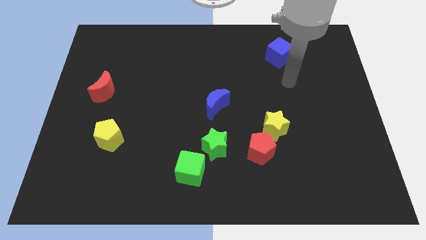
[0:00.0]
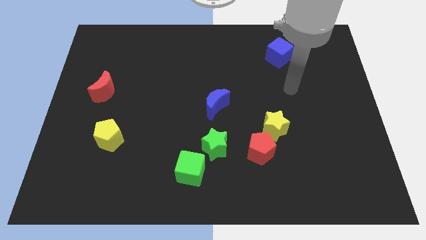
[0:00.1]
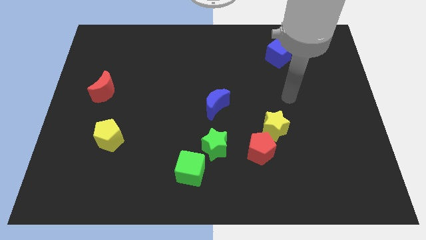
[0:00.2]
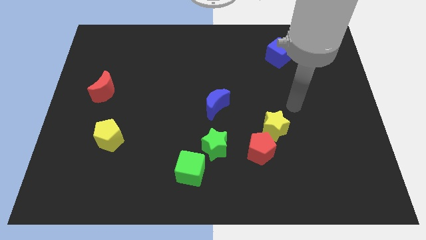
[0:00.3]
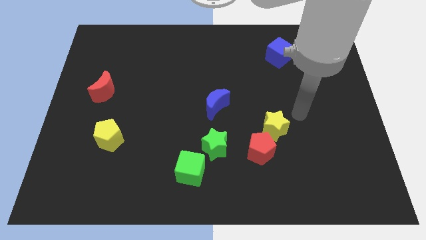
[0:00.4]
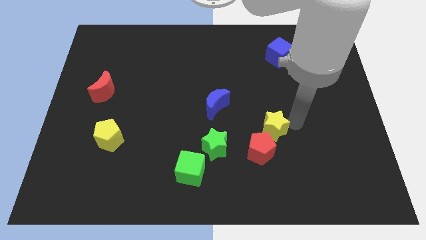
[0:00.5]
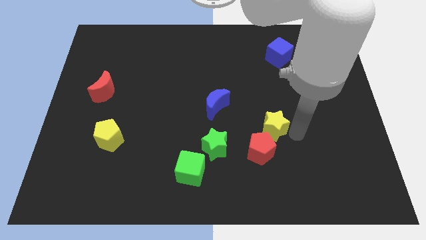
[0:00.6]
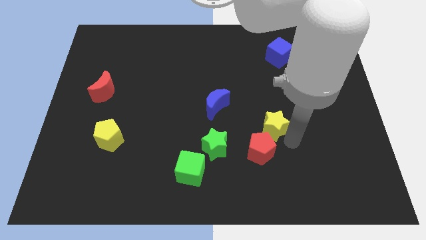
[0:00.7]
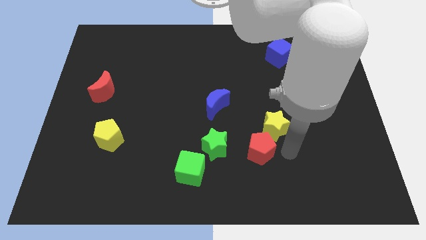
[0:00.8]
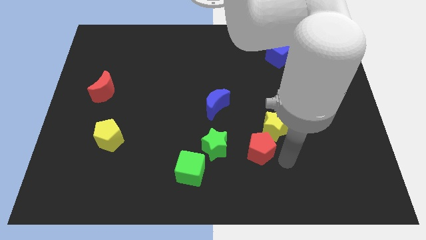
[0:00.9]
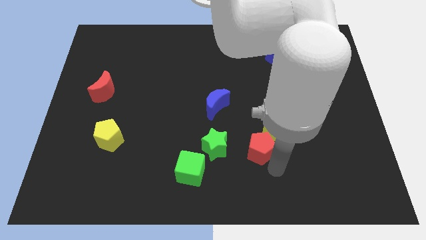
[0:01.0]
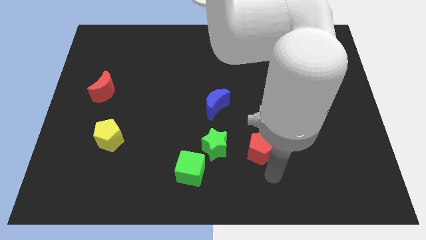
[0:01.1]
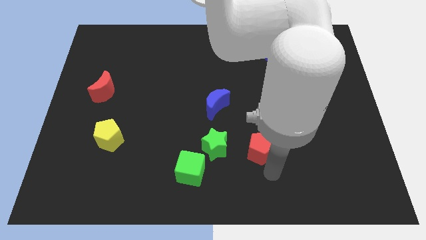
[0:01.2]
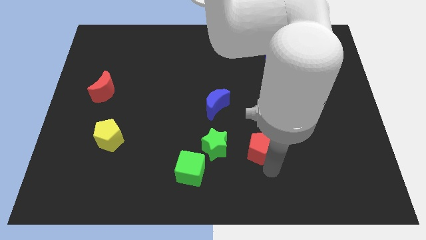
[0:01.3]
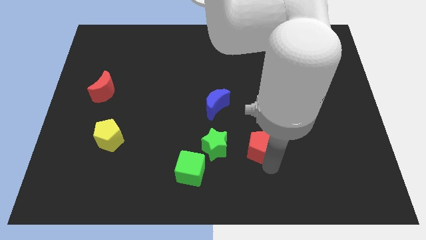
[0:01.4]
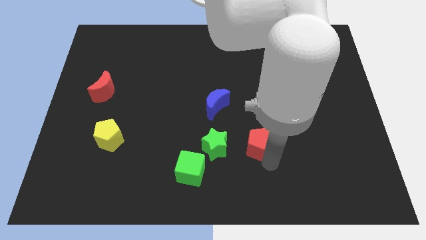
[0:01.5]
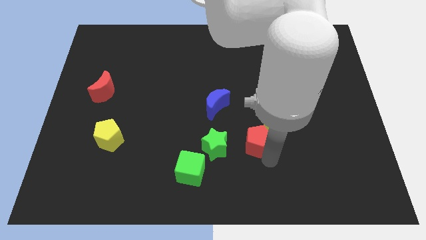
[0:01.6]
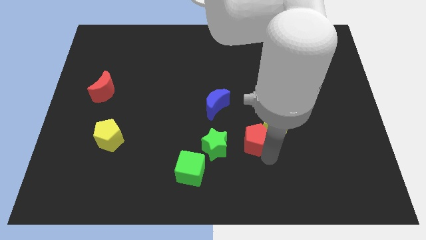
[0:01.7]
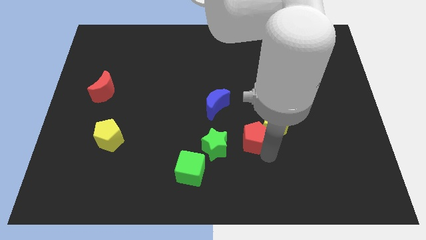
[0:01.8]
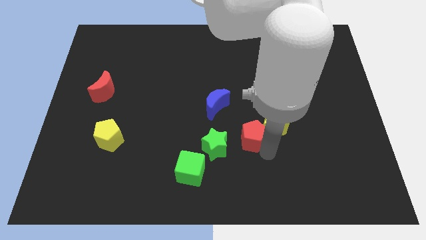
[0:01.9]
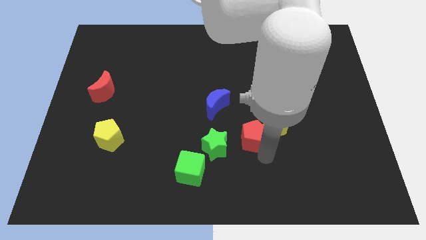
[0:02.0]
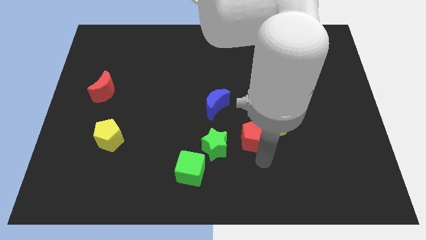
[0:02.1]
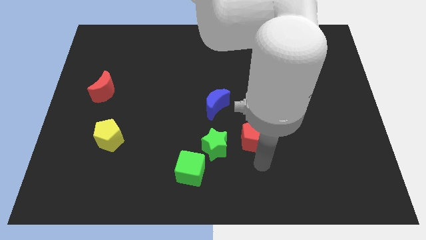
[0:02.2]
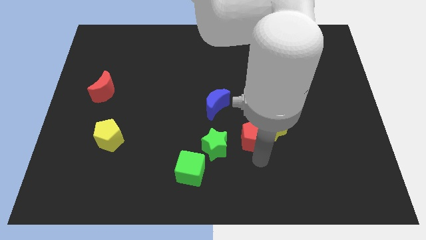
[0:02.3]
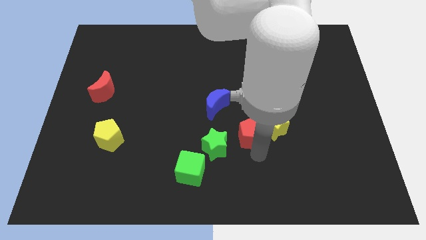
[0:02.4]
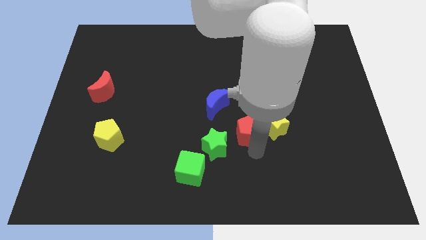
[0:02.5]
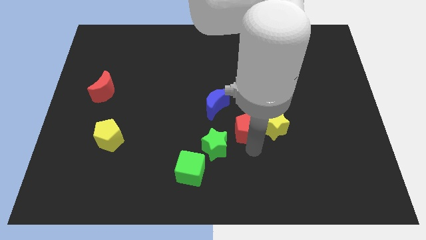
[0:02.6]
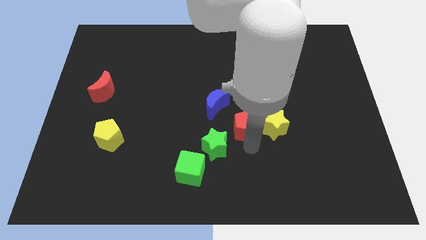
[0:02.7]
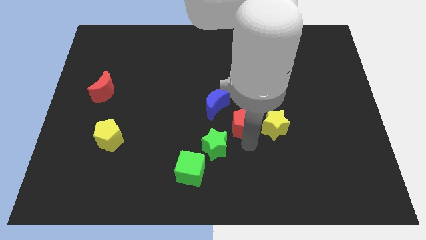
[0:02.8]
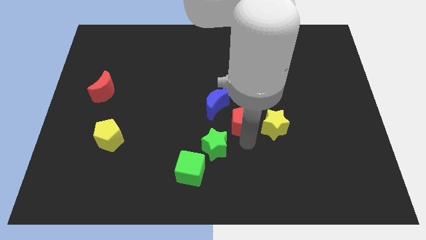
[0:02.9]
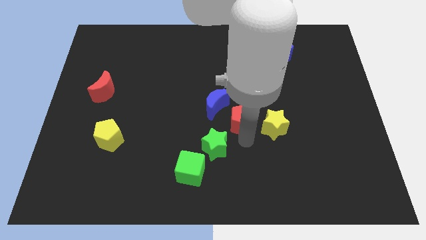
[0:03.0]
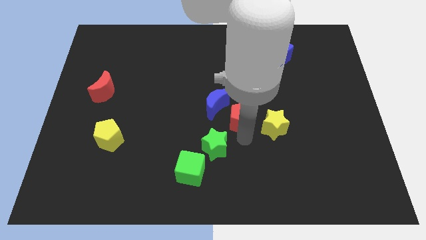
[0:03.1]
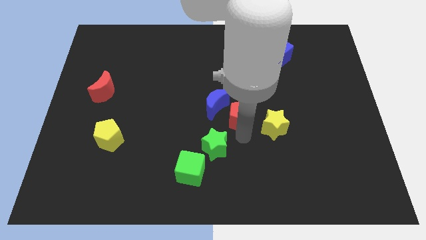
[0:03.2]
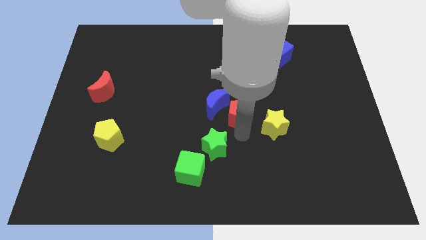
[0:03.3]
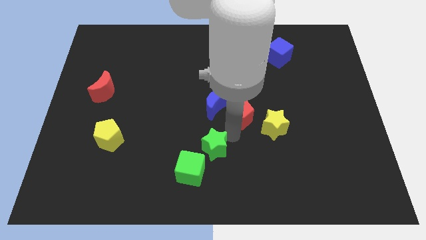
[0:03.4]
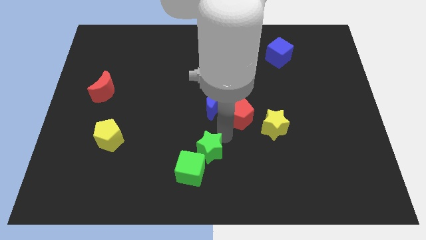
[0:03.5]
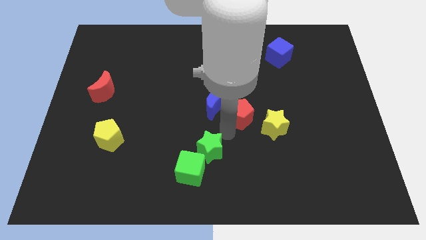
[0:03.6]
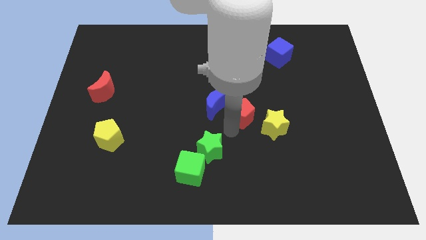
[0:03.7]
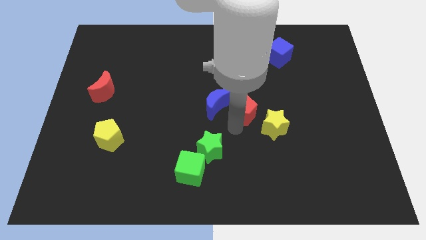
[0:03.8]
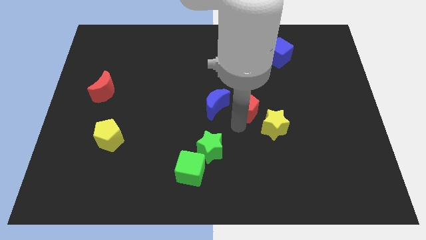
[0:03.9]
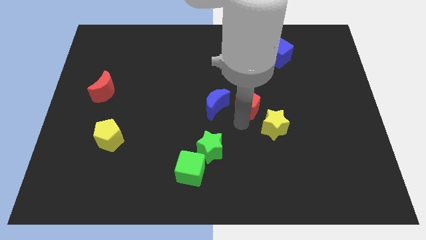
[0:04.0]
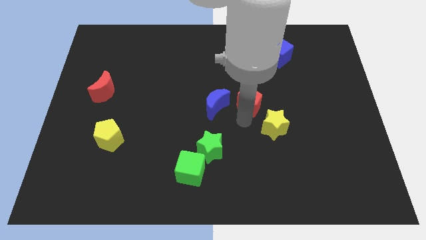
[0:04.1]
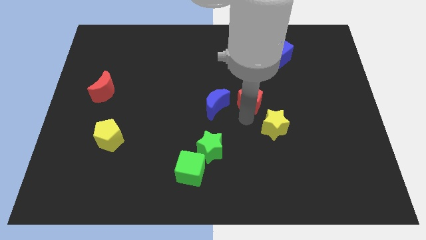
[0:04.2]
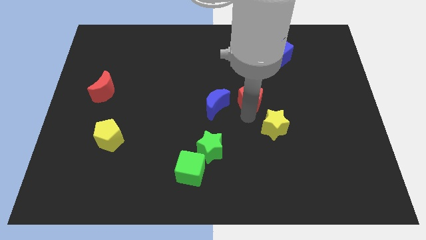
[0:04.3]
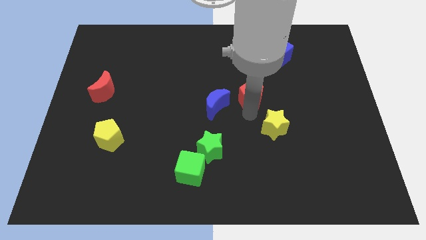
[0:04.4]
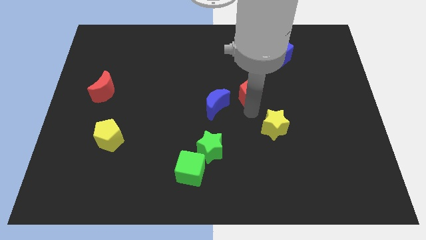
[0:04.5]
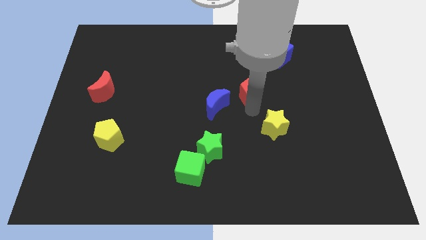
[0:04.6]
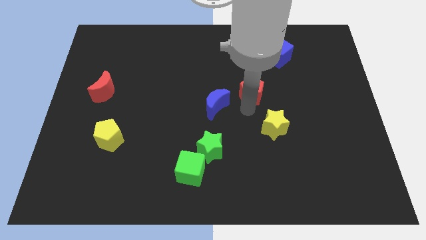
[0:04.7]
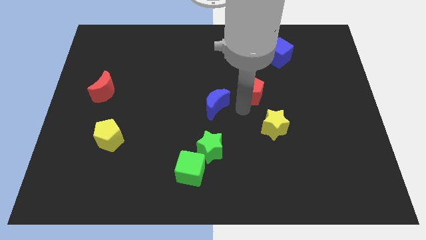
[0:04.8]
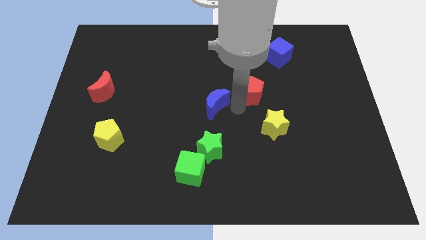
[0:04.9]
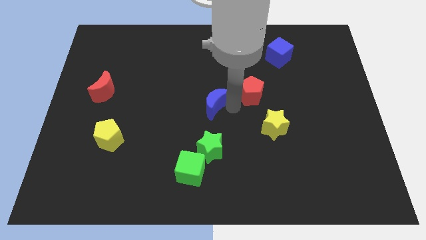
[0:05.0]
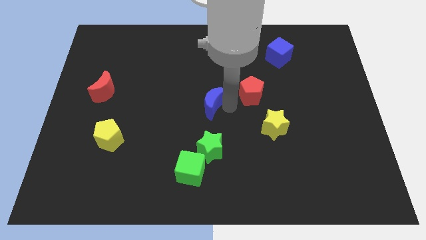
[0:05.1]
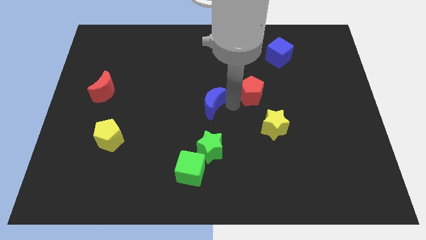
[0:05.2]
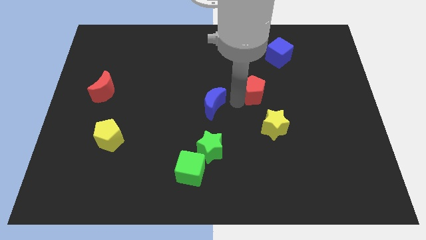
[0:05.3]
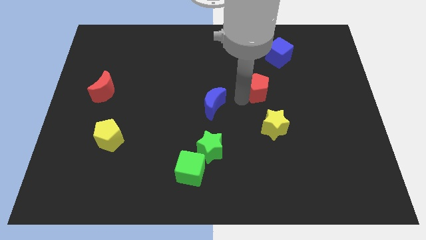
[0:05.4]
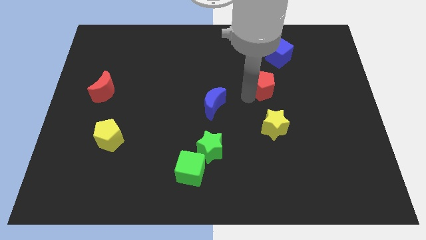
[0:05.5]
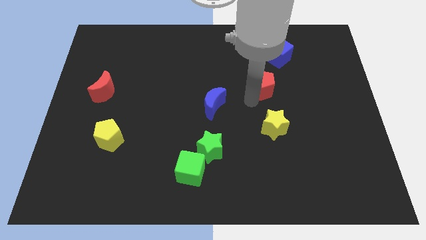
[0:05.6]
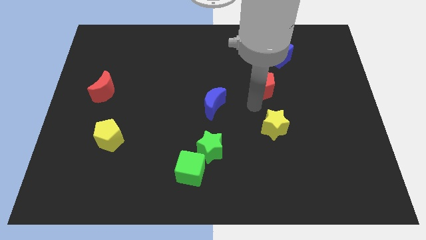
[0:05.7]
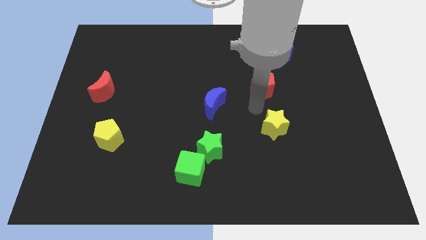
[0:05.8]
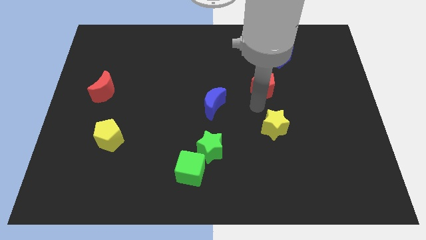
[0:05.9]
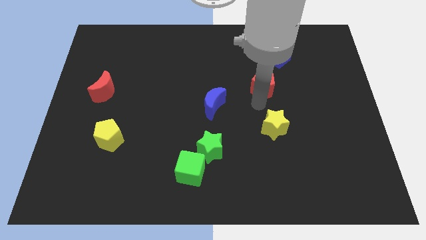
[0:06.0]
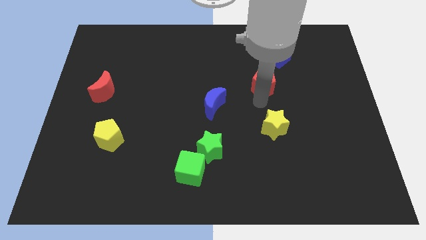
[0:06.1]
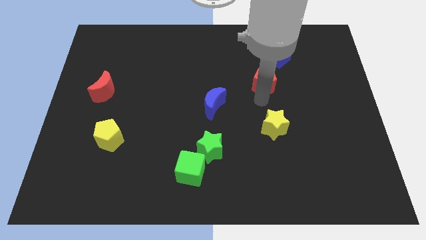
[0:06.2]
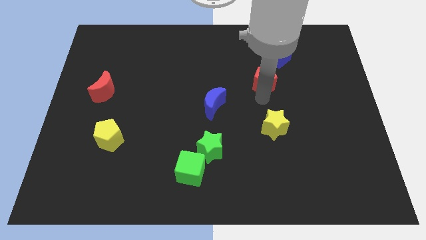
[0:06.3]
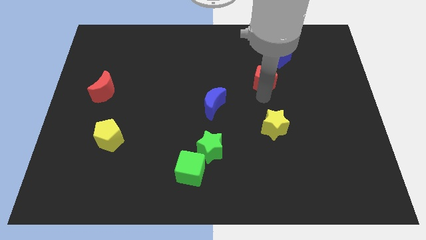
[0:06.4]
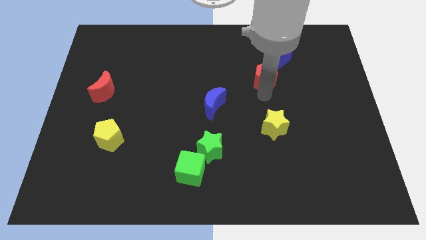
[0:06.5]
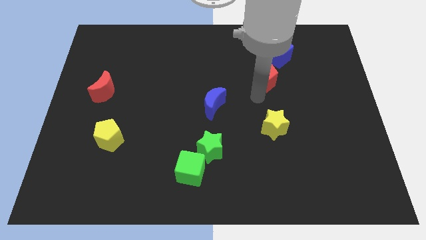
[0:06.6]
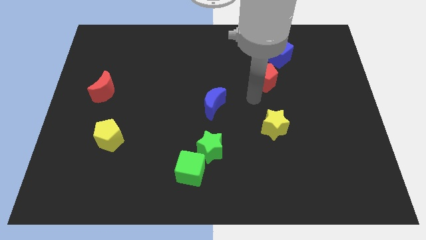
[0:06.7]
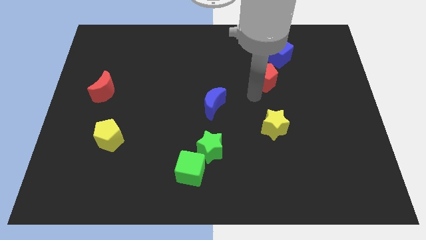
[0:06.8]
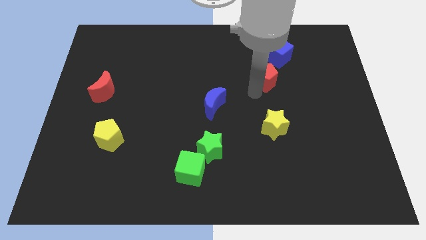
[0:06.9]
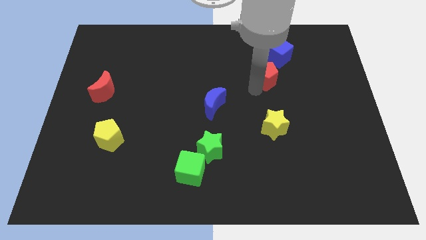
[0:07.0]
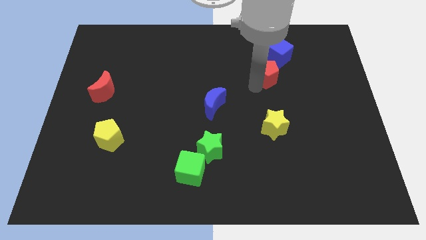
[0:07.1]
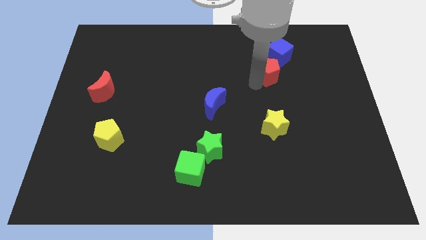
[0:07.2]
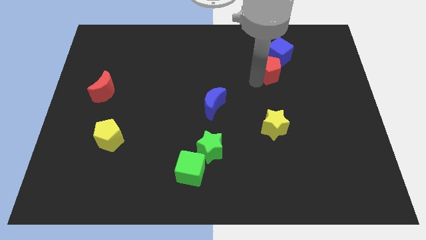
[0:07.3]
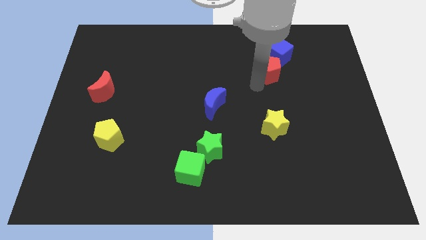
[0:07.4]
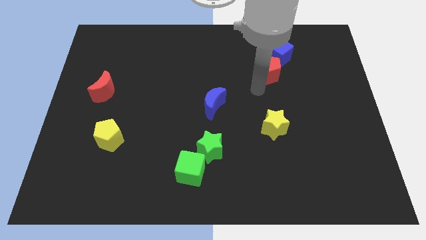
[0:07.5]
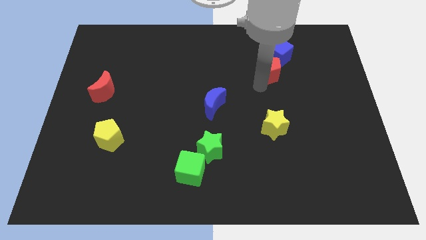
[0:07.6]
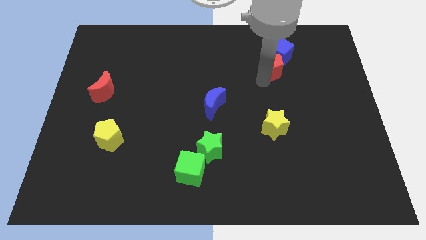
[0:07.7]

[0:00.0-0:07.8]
slide the red pentagon towards the blue cube
